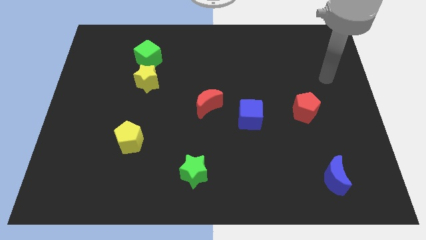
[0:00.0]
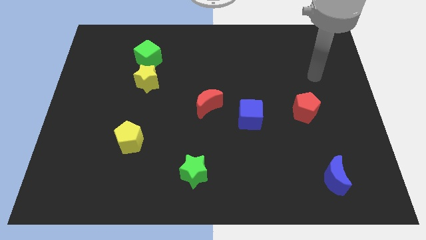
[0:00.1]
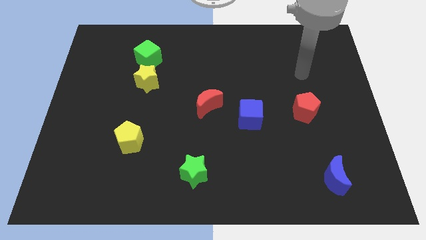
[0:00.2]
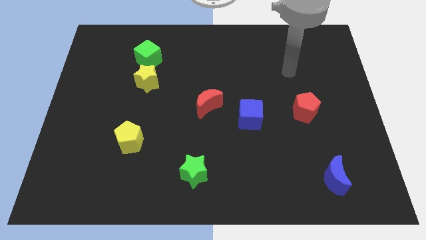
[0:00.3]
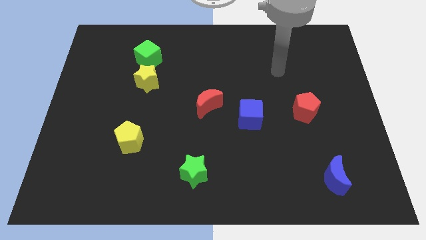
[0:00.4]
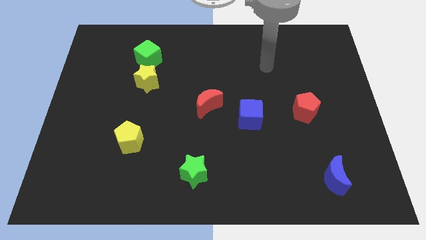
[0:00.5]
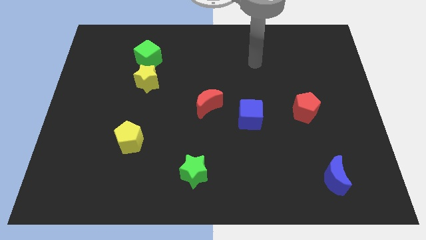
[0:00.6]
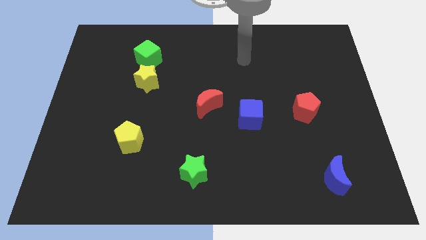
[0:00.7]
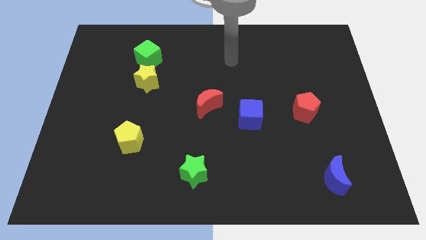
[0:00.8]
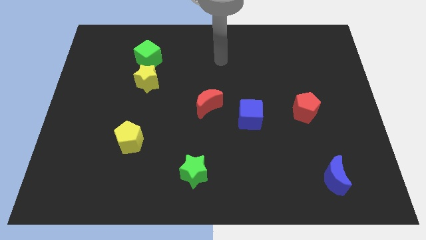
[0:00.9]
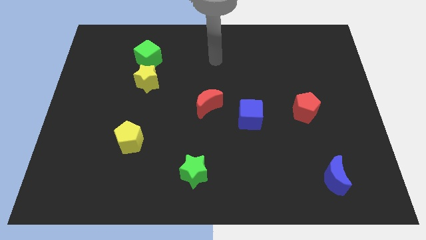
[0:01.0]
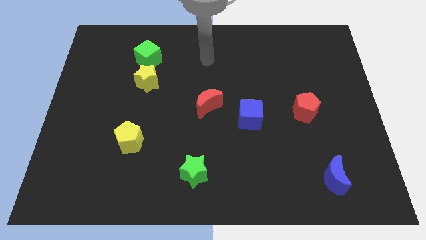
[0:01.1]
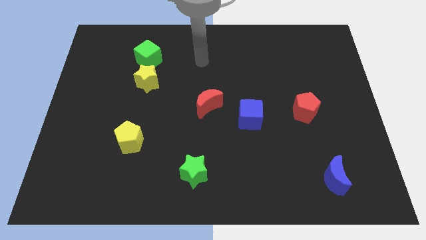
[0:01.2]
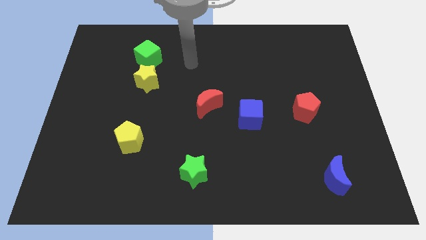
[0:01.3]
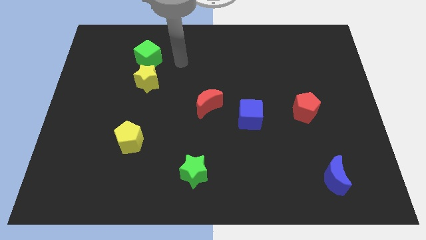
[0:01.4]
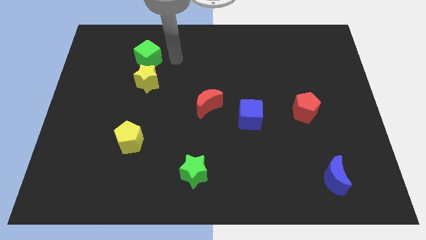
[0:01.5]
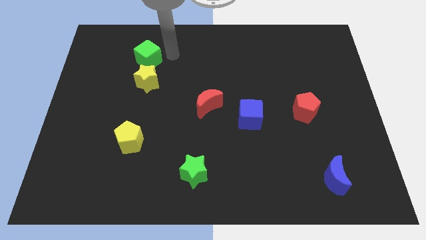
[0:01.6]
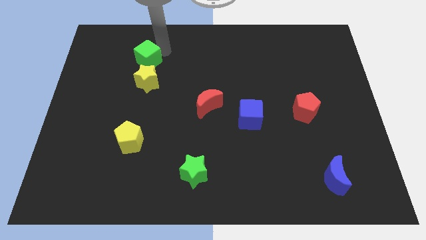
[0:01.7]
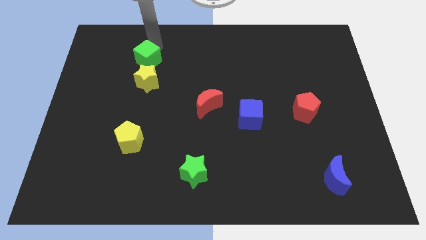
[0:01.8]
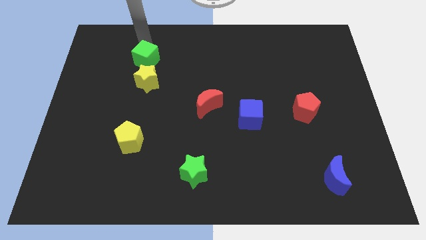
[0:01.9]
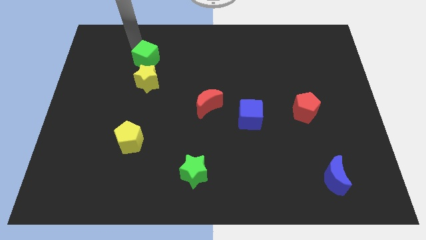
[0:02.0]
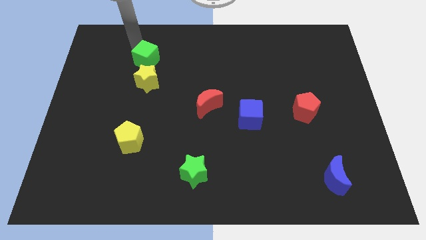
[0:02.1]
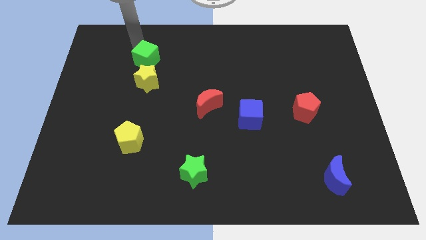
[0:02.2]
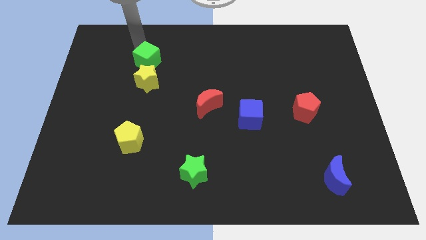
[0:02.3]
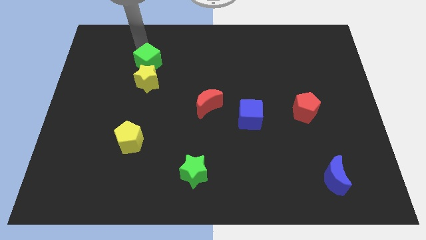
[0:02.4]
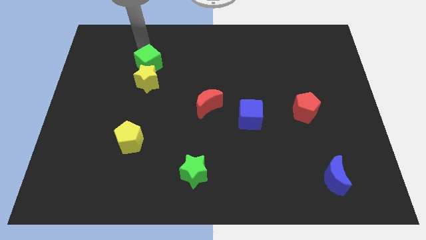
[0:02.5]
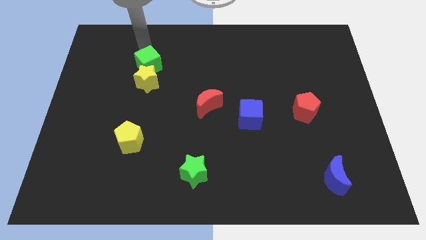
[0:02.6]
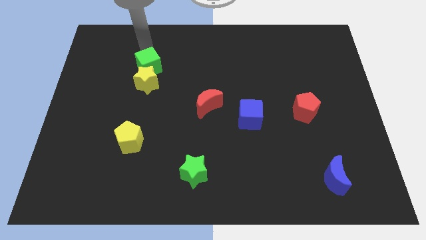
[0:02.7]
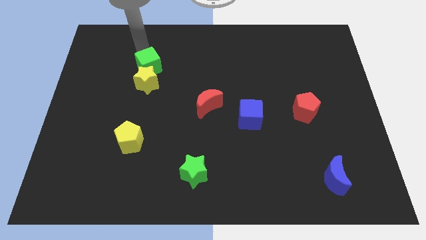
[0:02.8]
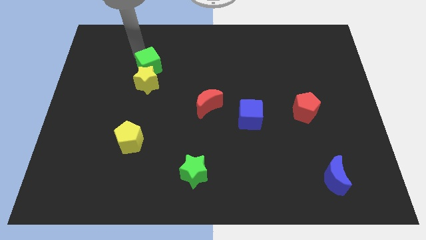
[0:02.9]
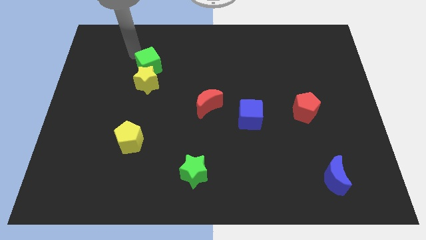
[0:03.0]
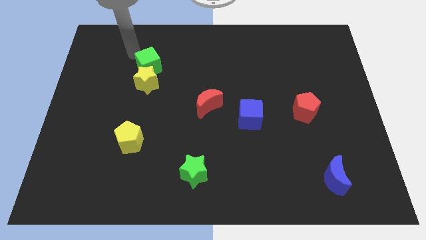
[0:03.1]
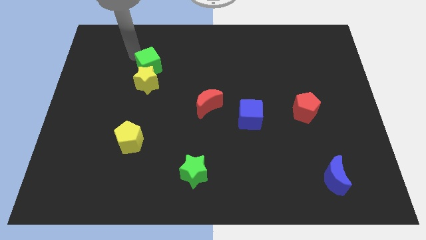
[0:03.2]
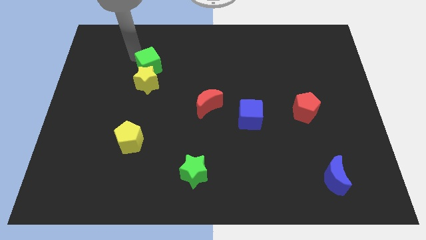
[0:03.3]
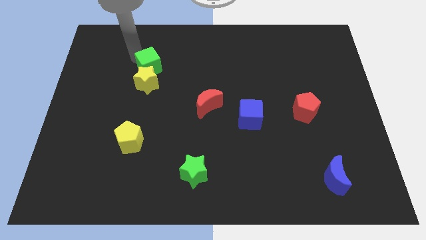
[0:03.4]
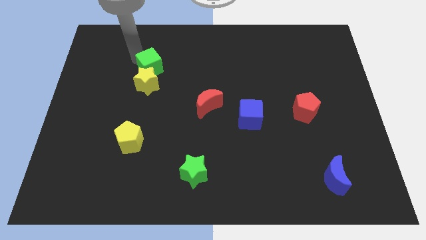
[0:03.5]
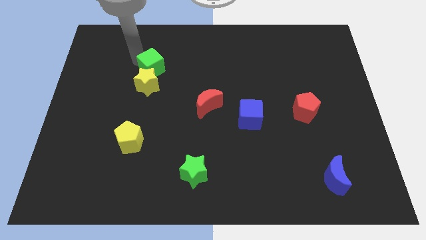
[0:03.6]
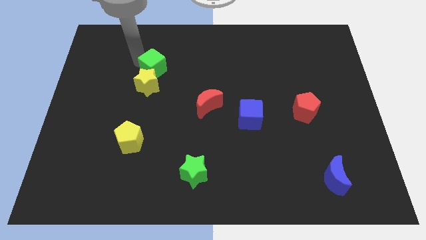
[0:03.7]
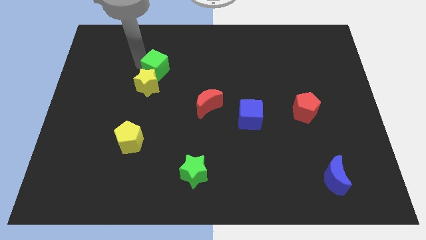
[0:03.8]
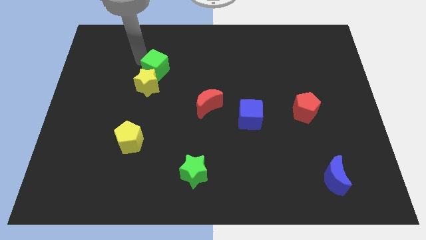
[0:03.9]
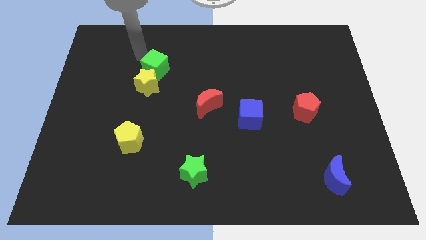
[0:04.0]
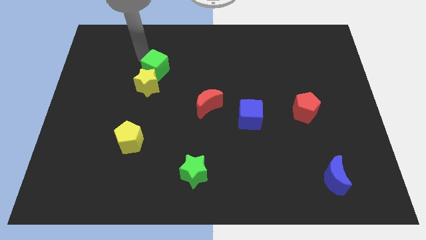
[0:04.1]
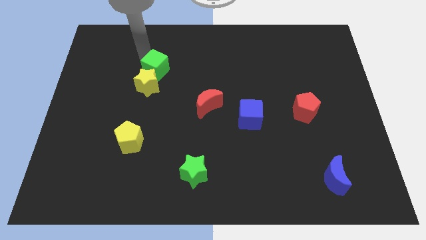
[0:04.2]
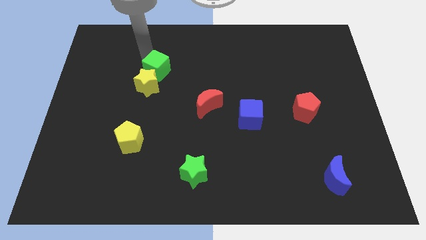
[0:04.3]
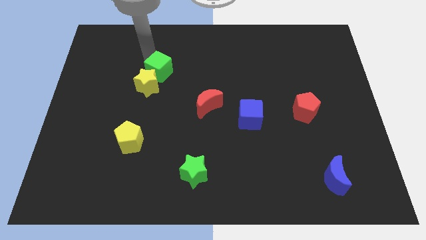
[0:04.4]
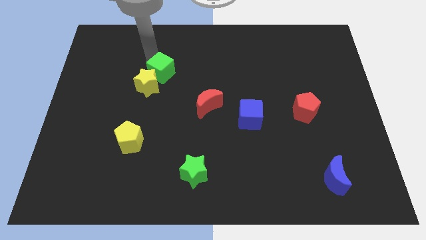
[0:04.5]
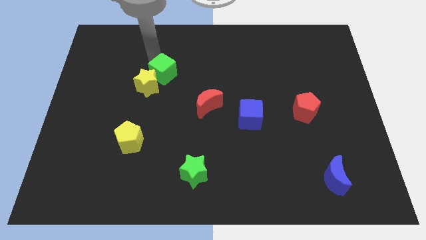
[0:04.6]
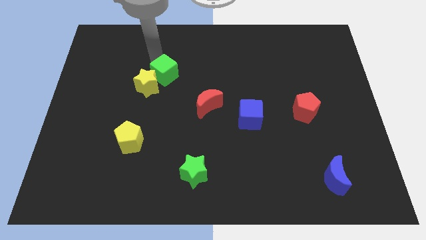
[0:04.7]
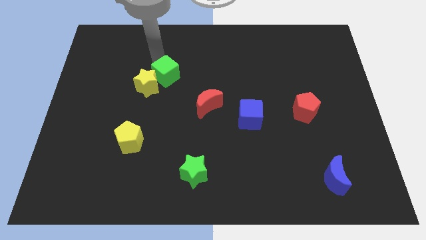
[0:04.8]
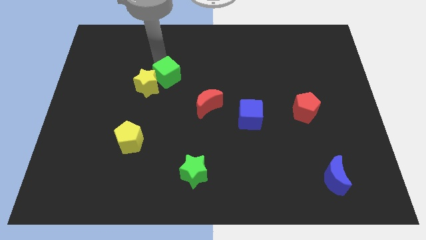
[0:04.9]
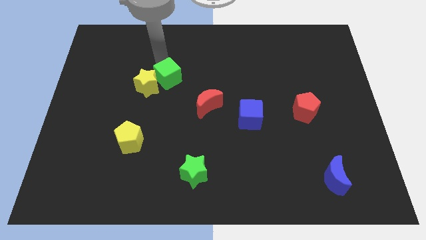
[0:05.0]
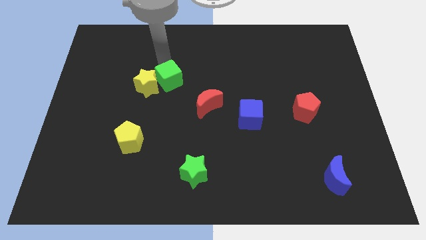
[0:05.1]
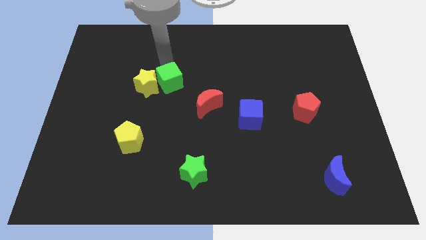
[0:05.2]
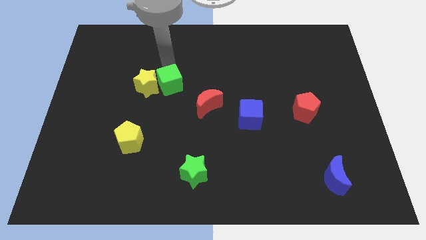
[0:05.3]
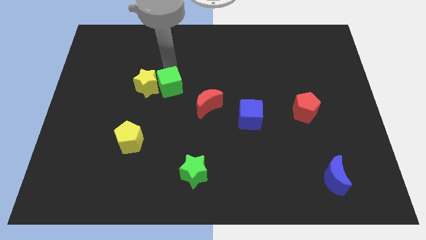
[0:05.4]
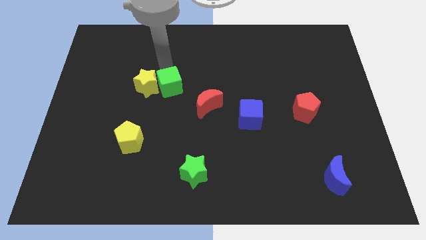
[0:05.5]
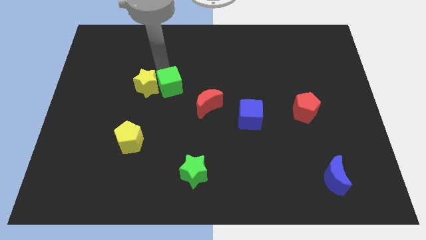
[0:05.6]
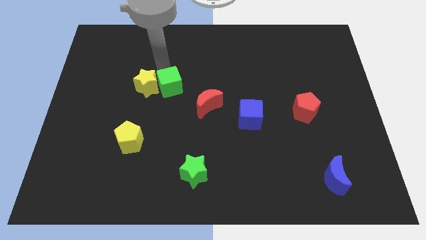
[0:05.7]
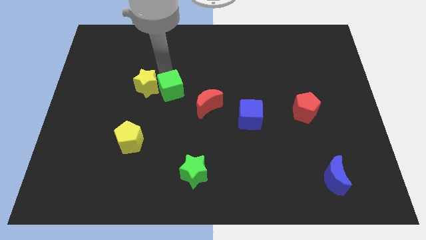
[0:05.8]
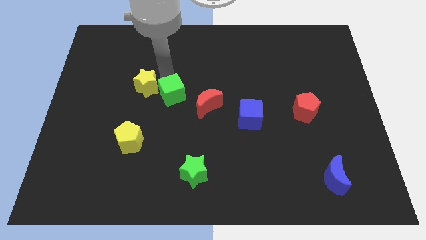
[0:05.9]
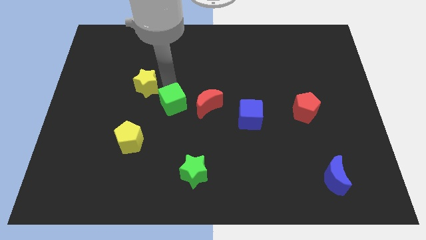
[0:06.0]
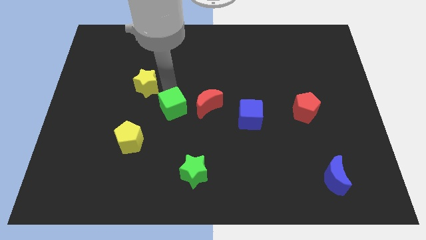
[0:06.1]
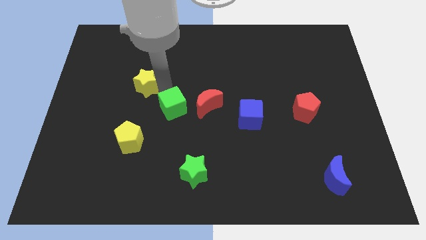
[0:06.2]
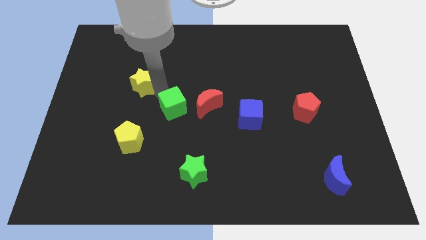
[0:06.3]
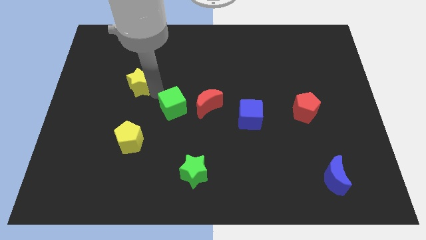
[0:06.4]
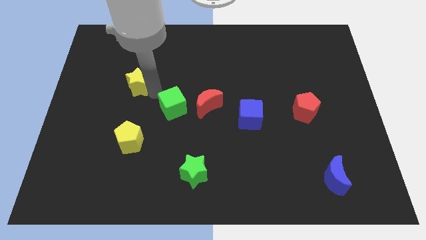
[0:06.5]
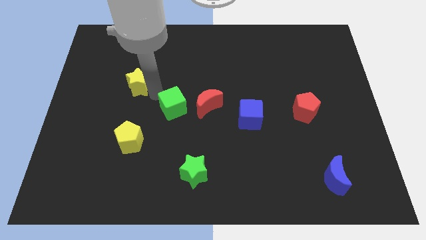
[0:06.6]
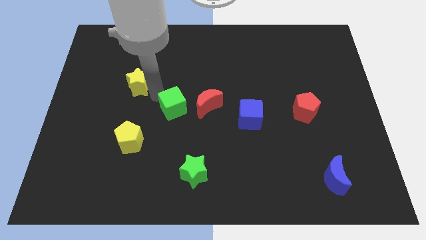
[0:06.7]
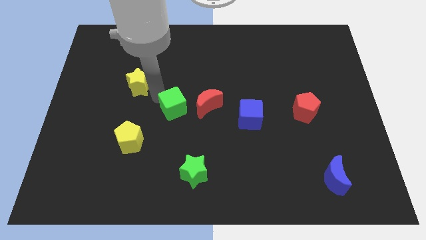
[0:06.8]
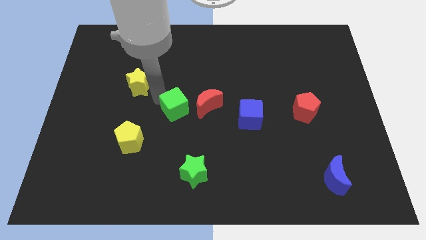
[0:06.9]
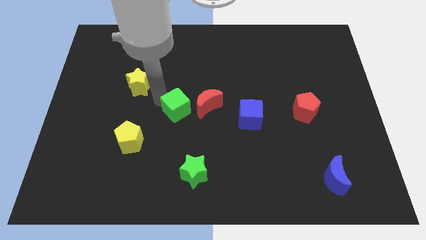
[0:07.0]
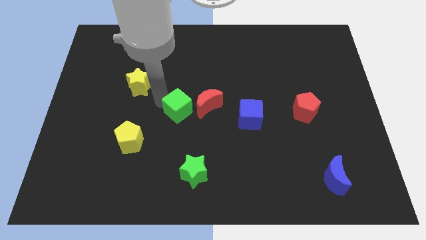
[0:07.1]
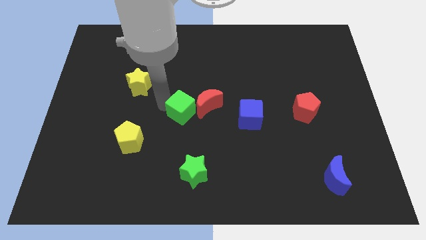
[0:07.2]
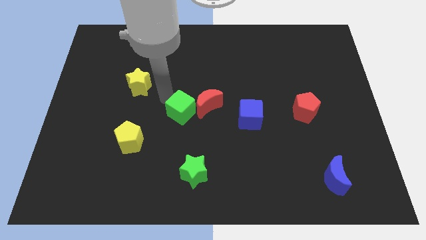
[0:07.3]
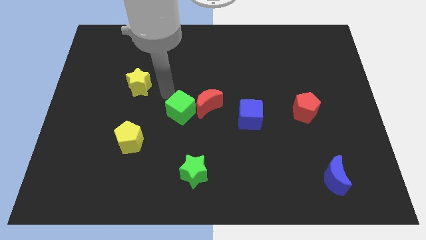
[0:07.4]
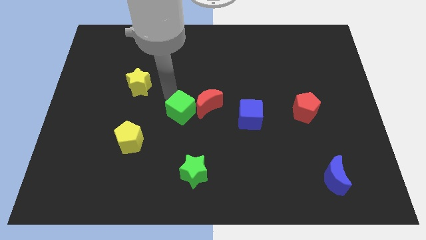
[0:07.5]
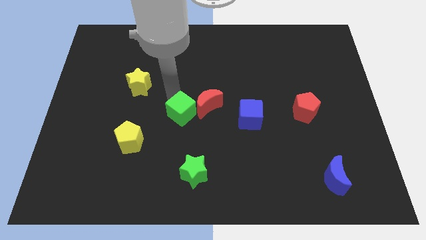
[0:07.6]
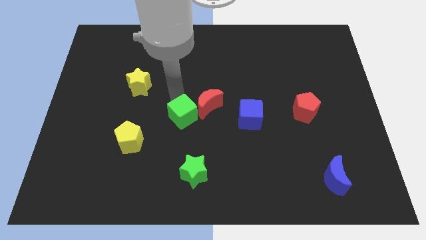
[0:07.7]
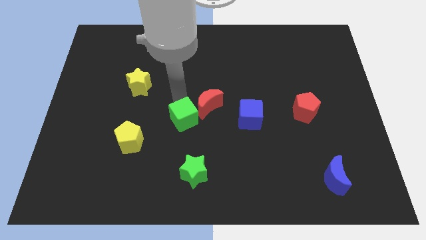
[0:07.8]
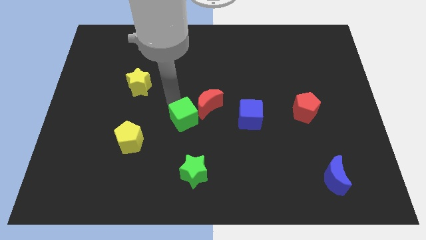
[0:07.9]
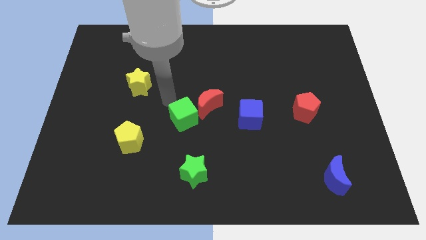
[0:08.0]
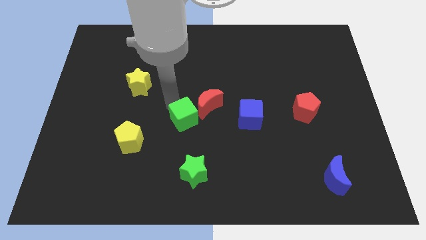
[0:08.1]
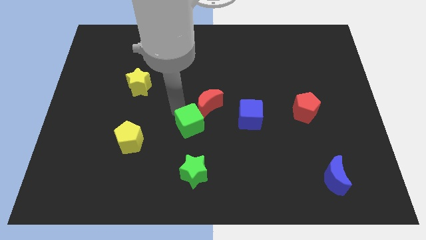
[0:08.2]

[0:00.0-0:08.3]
move the green cube below the red moon
